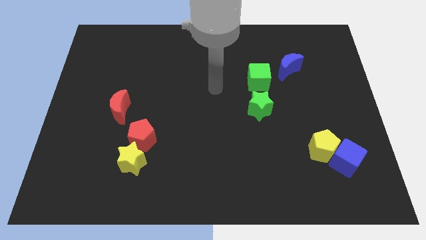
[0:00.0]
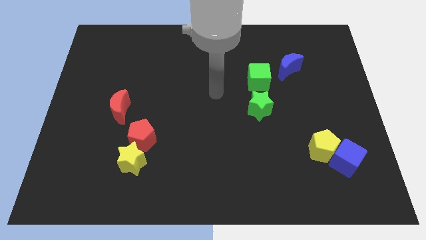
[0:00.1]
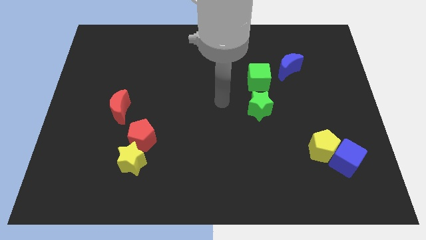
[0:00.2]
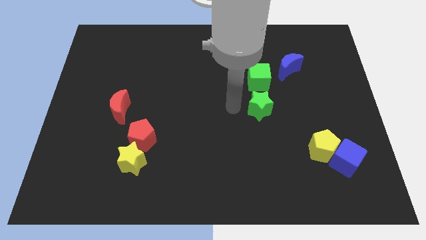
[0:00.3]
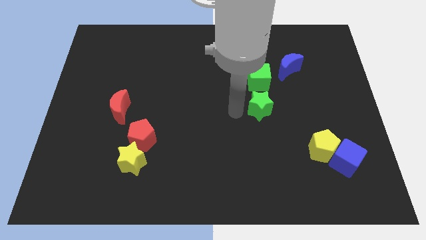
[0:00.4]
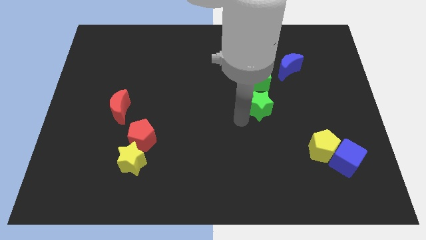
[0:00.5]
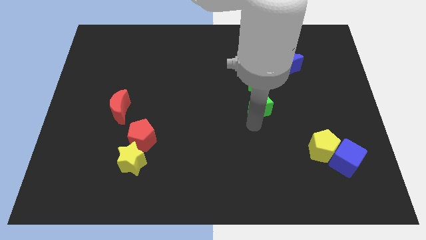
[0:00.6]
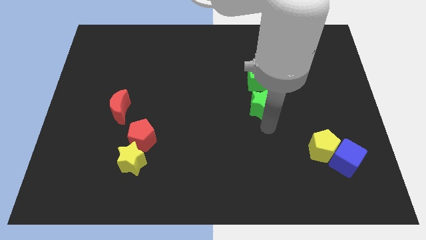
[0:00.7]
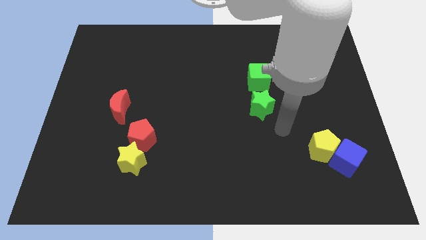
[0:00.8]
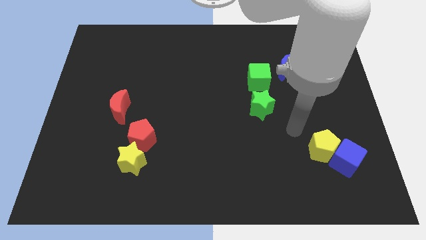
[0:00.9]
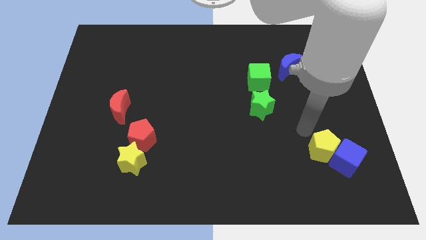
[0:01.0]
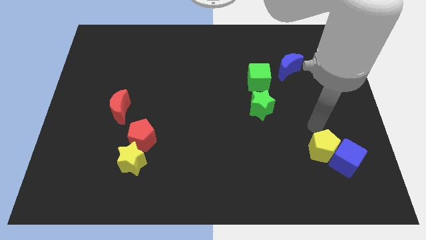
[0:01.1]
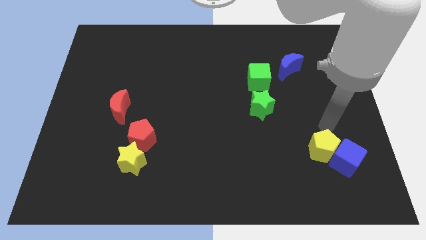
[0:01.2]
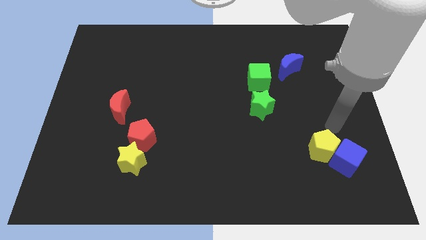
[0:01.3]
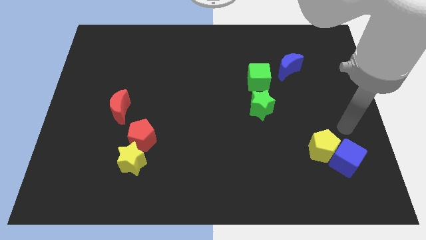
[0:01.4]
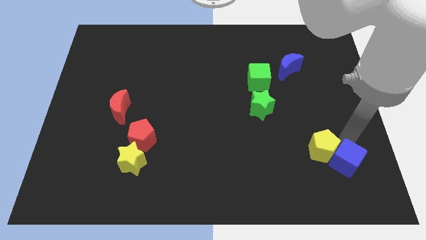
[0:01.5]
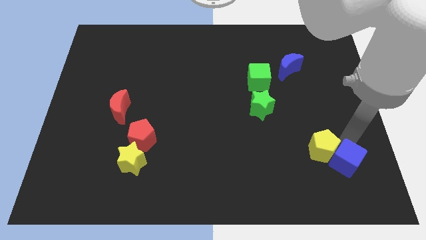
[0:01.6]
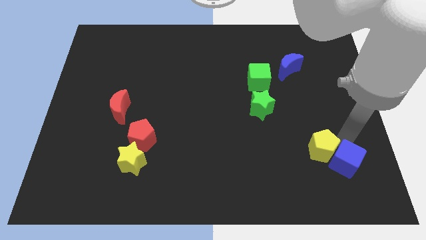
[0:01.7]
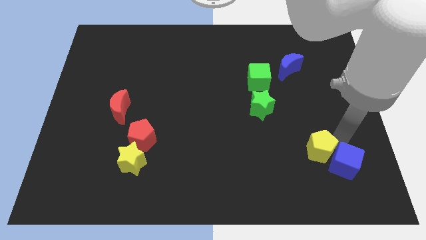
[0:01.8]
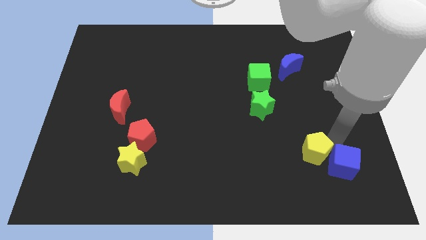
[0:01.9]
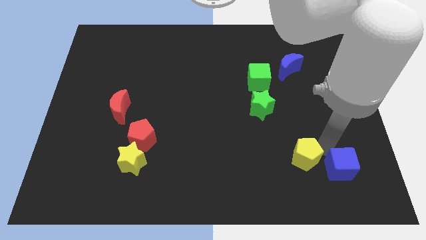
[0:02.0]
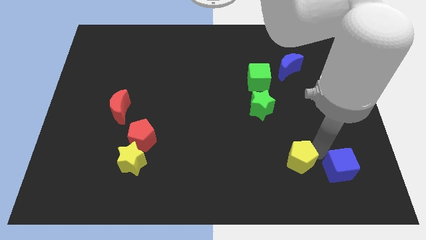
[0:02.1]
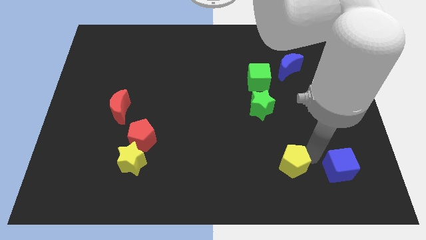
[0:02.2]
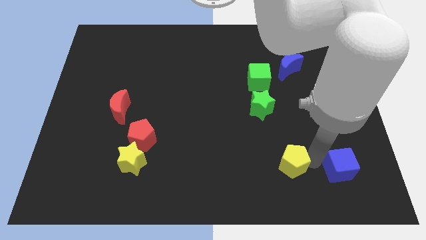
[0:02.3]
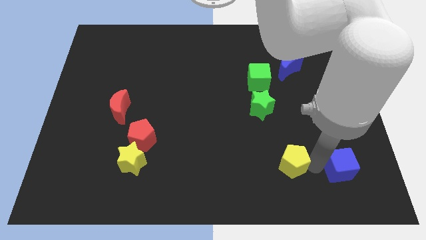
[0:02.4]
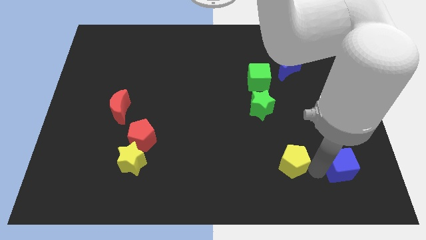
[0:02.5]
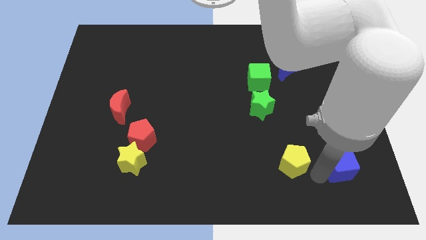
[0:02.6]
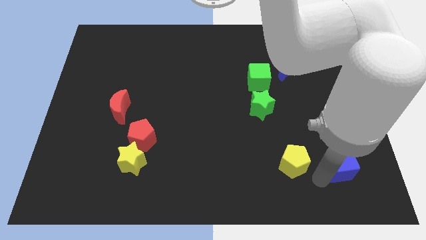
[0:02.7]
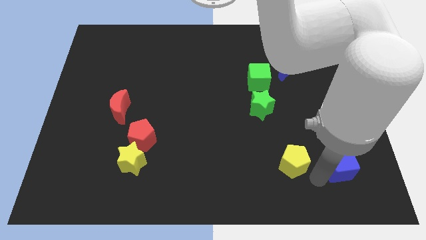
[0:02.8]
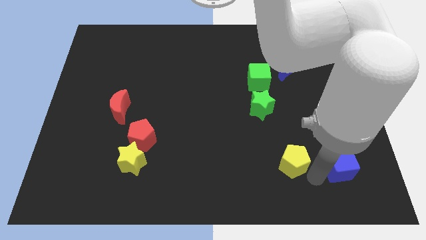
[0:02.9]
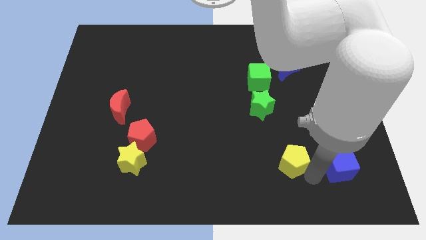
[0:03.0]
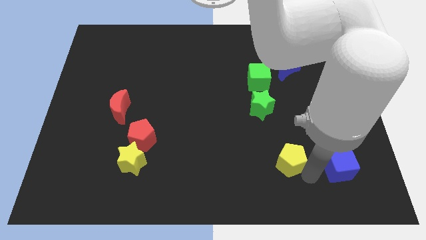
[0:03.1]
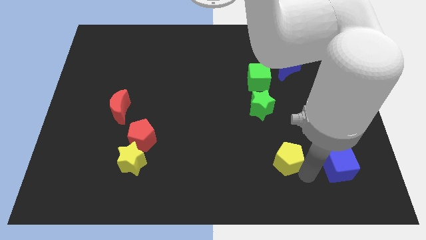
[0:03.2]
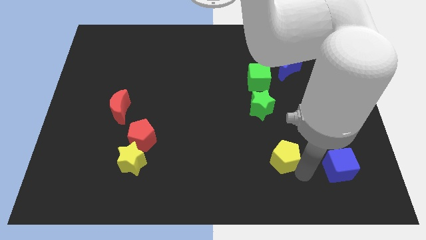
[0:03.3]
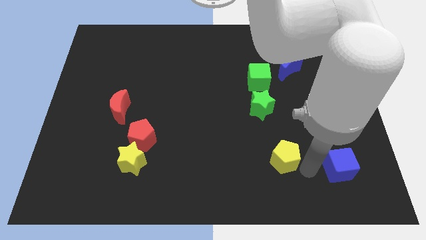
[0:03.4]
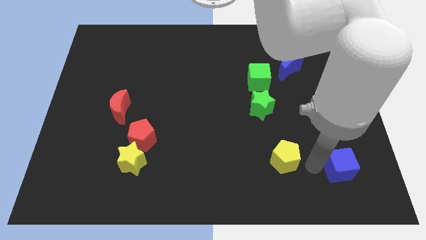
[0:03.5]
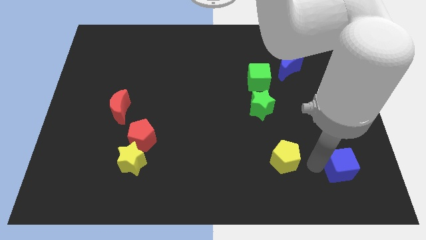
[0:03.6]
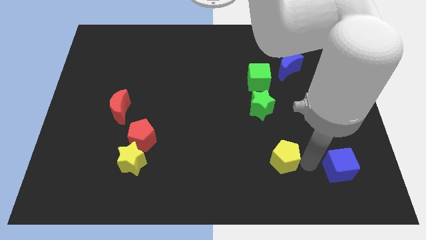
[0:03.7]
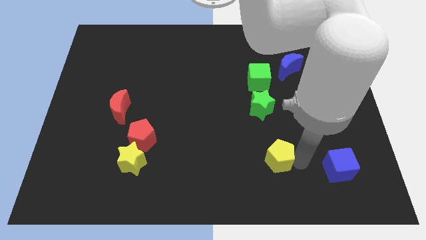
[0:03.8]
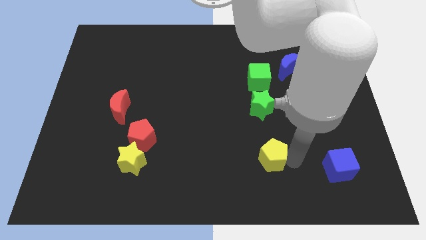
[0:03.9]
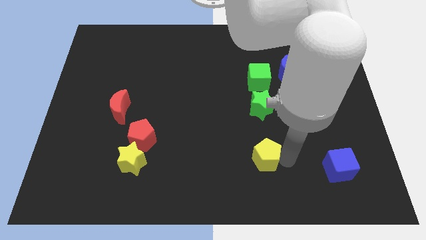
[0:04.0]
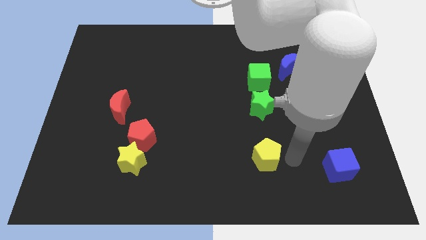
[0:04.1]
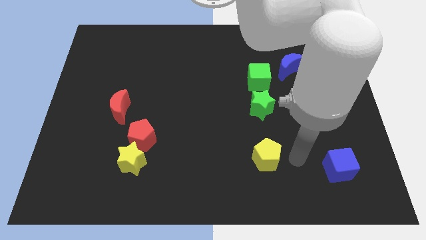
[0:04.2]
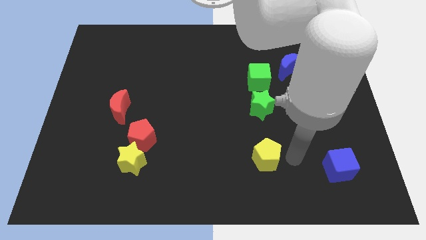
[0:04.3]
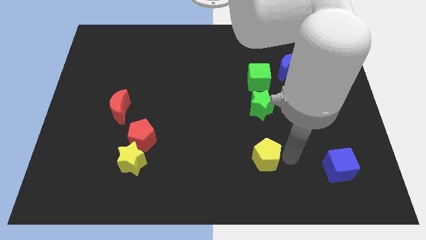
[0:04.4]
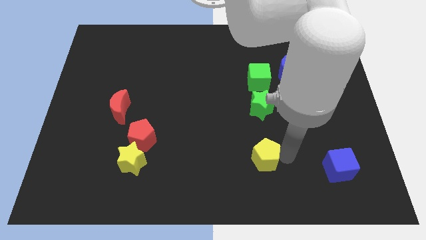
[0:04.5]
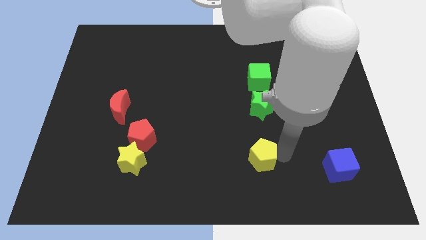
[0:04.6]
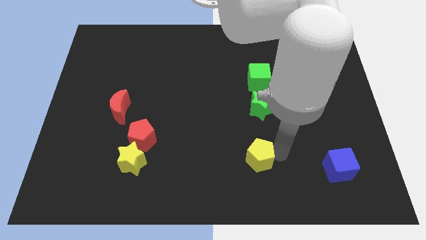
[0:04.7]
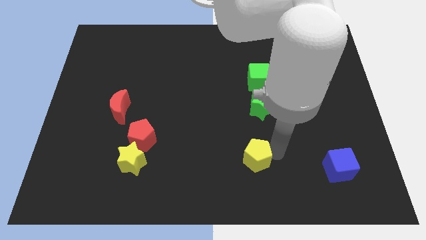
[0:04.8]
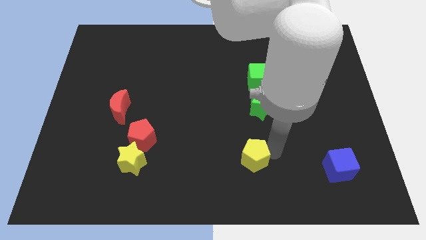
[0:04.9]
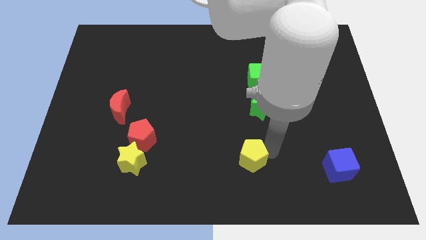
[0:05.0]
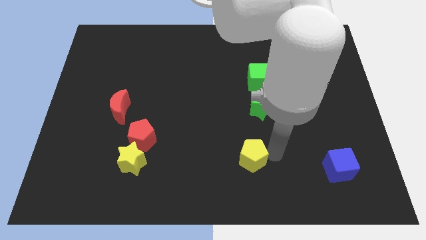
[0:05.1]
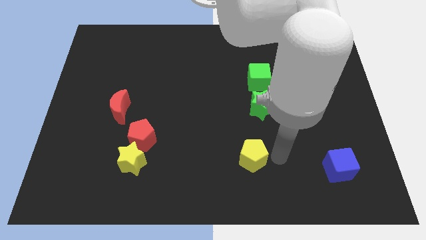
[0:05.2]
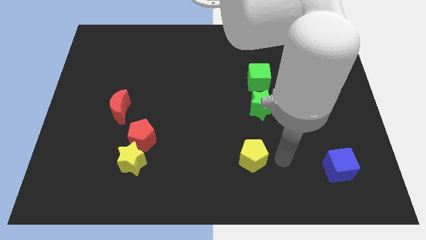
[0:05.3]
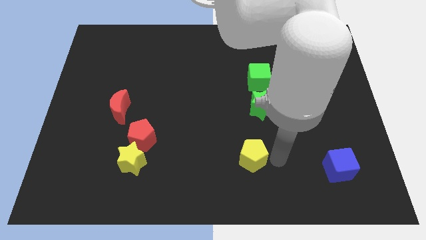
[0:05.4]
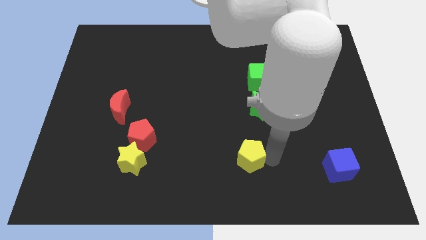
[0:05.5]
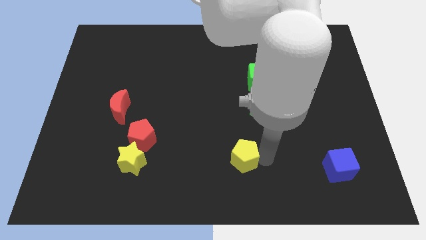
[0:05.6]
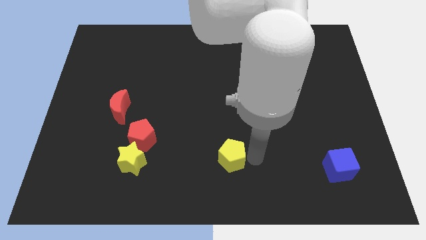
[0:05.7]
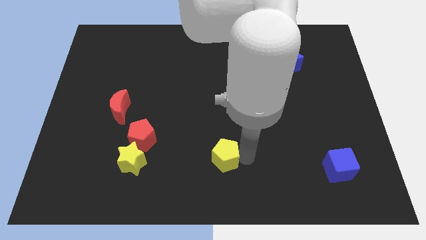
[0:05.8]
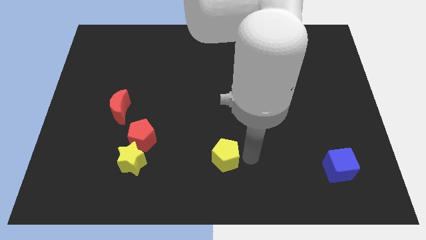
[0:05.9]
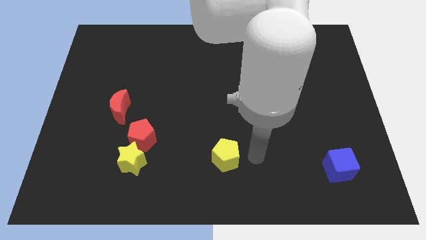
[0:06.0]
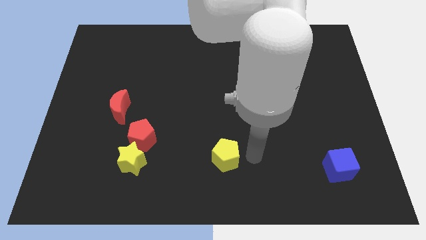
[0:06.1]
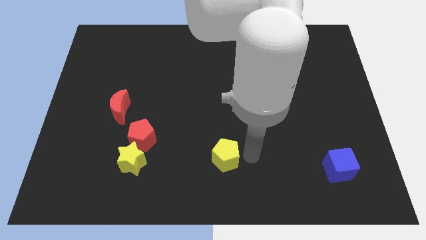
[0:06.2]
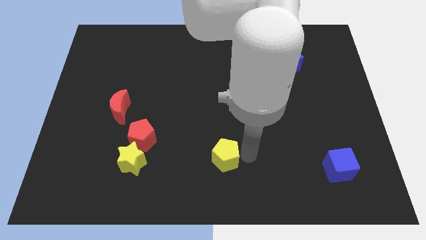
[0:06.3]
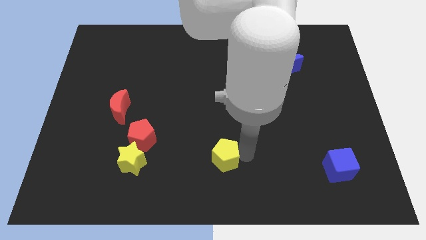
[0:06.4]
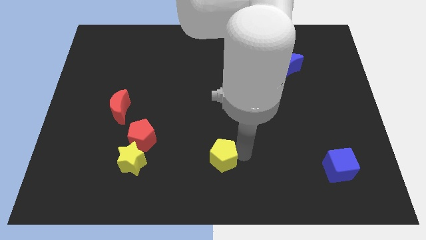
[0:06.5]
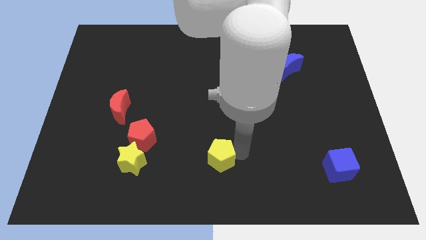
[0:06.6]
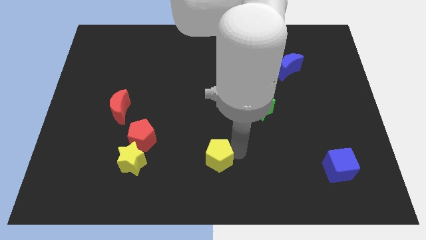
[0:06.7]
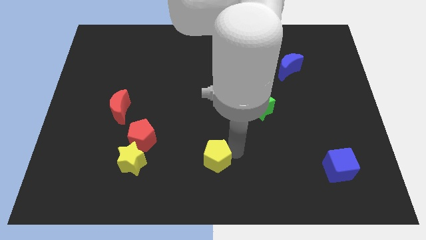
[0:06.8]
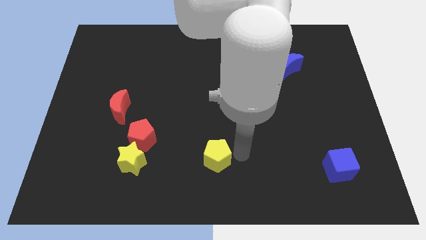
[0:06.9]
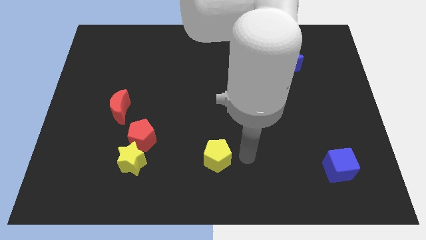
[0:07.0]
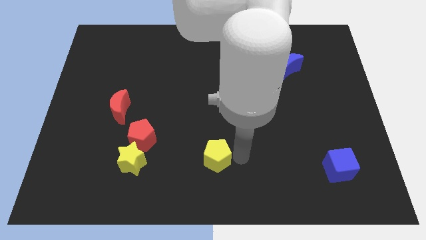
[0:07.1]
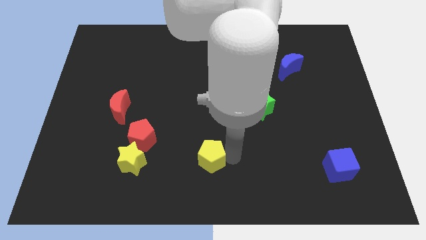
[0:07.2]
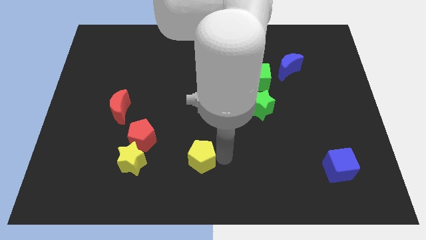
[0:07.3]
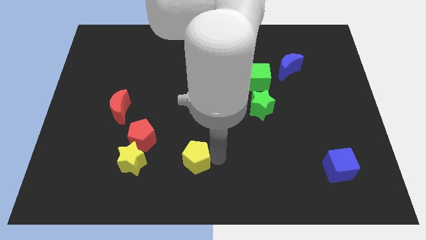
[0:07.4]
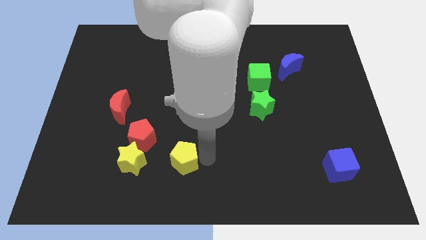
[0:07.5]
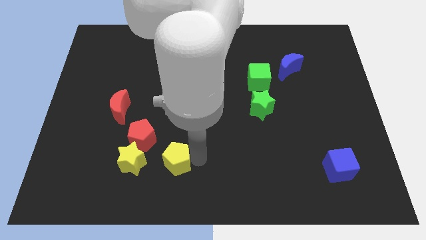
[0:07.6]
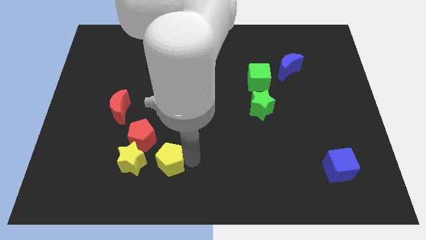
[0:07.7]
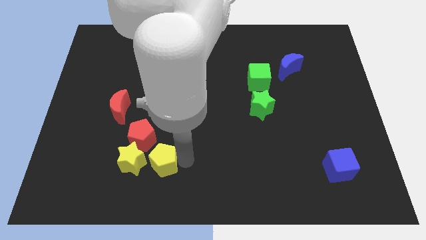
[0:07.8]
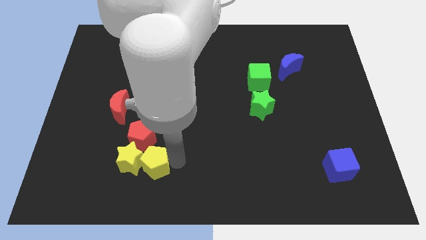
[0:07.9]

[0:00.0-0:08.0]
put the yellow pentagon to the yellow star
